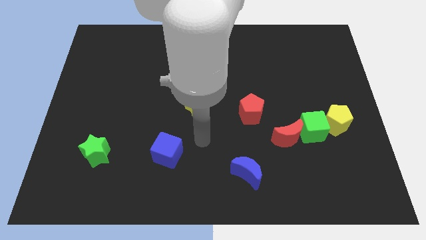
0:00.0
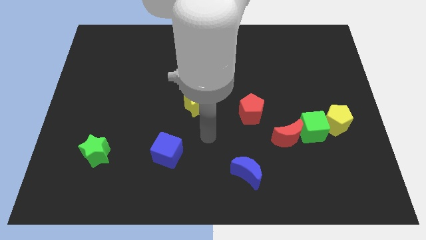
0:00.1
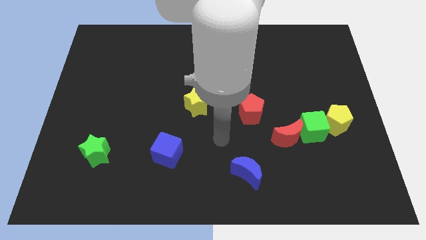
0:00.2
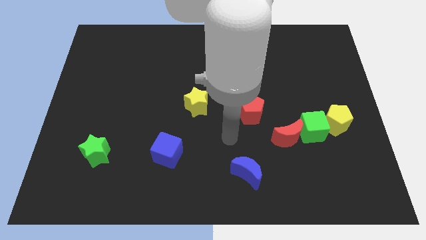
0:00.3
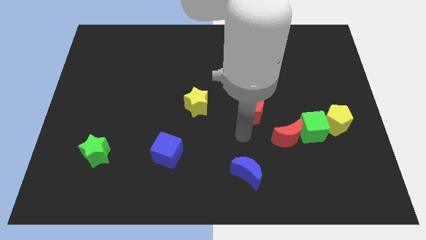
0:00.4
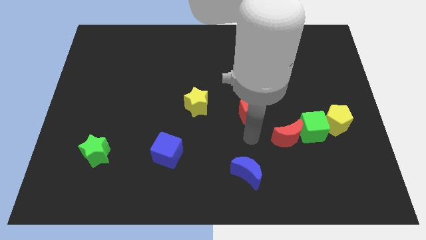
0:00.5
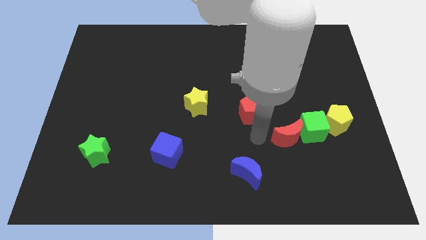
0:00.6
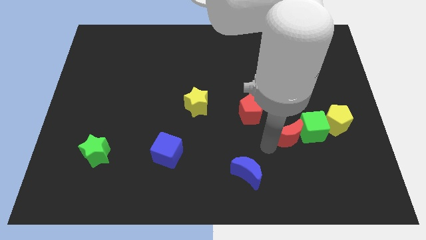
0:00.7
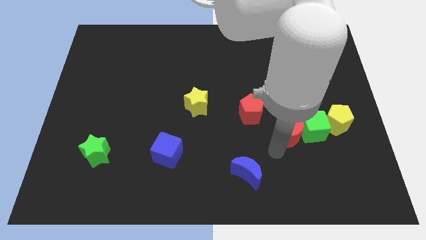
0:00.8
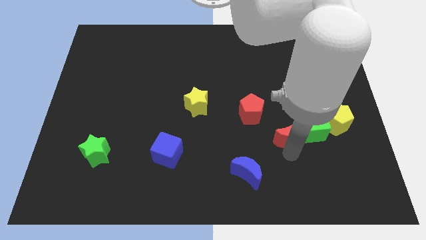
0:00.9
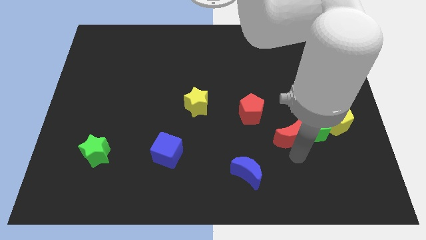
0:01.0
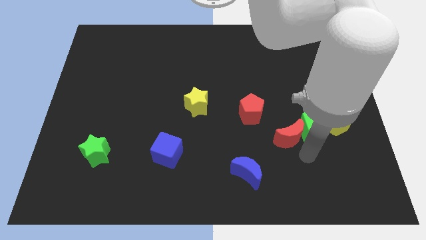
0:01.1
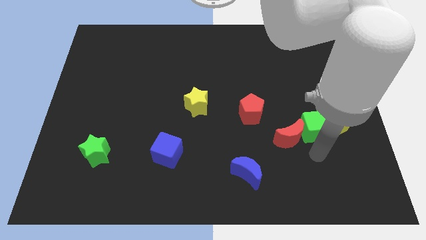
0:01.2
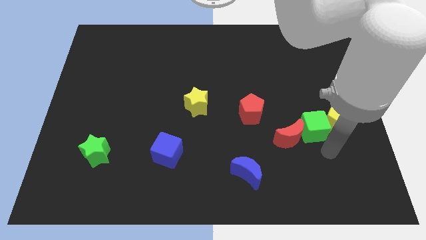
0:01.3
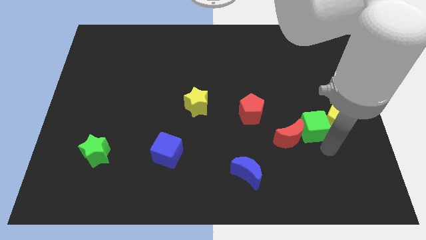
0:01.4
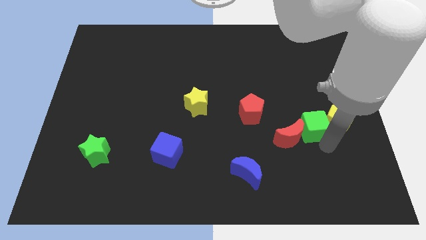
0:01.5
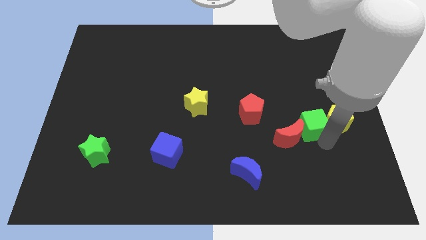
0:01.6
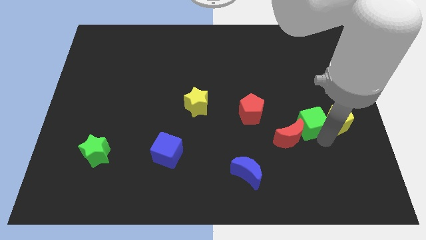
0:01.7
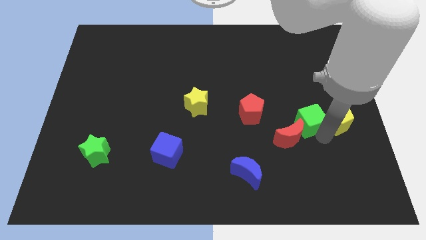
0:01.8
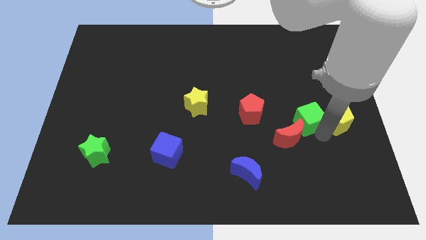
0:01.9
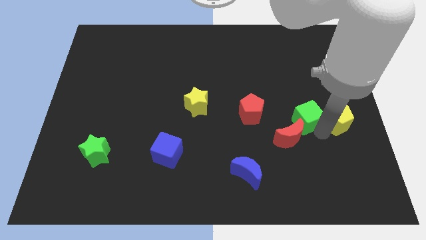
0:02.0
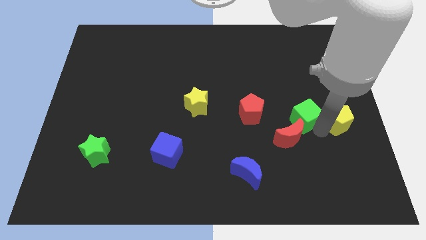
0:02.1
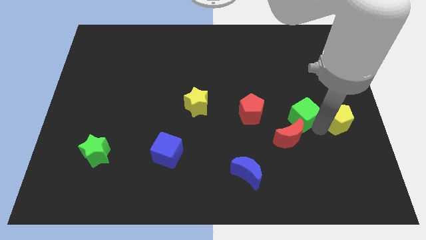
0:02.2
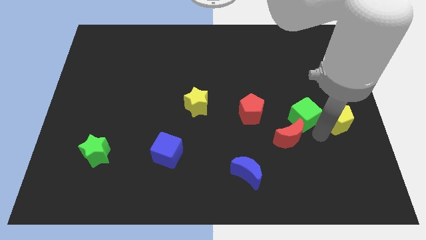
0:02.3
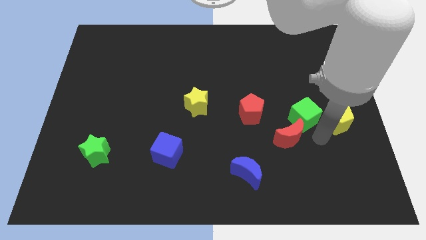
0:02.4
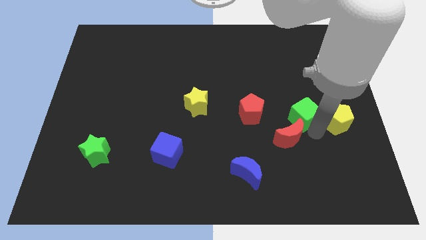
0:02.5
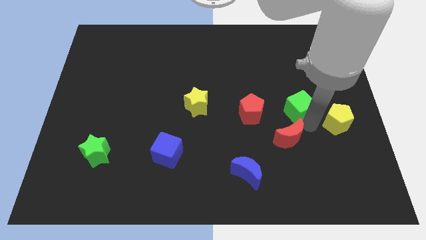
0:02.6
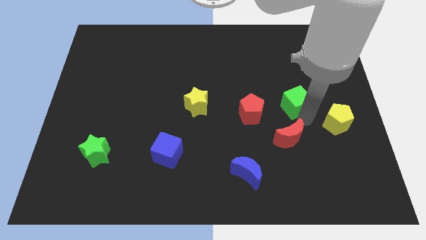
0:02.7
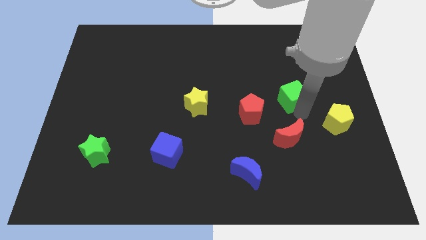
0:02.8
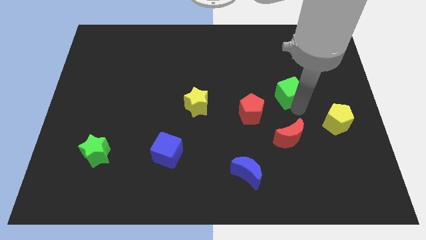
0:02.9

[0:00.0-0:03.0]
move the green cube away from the red moon and yellow pentagon

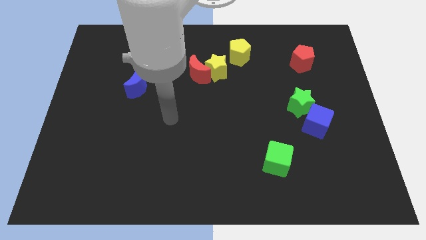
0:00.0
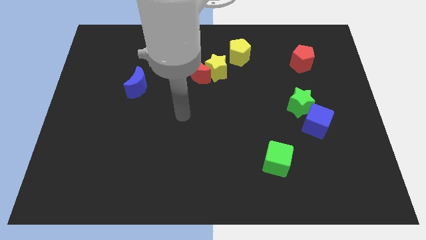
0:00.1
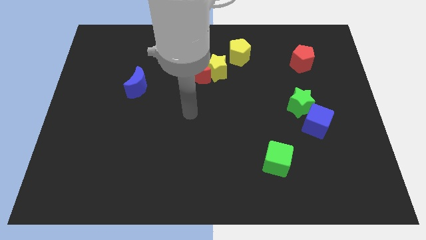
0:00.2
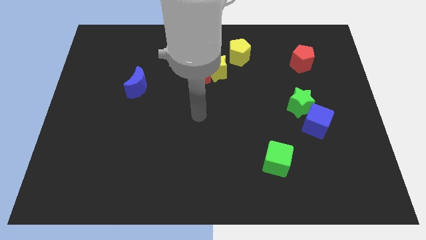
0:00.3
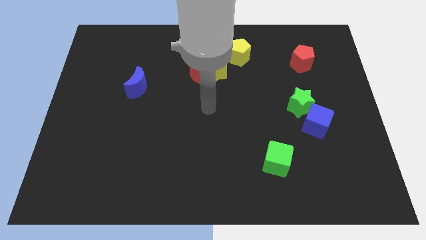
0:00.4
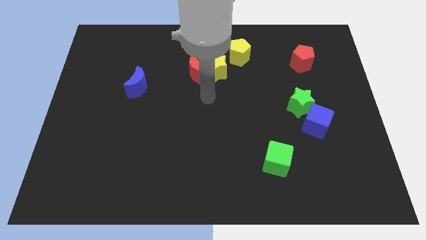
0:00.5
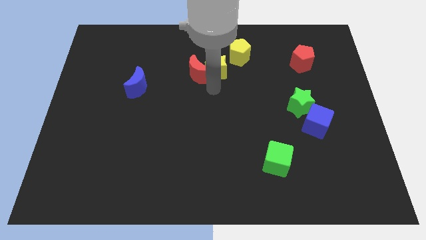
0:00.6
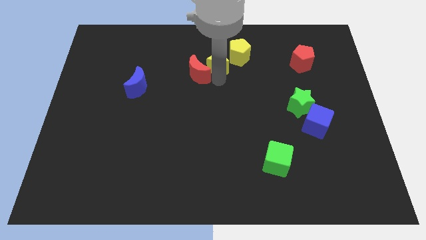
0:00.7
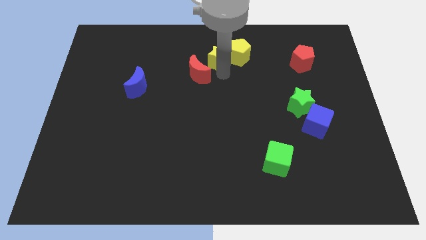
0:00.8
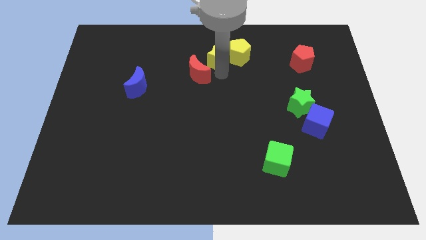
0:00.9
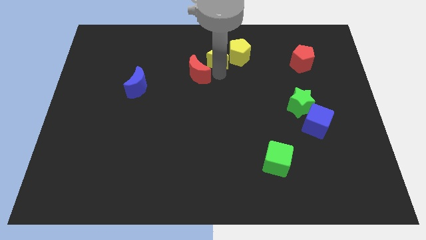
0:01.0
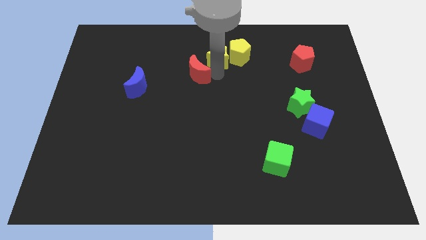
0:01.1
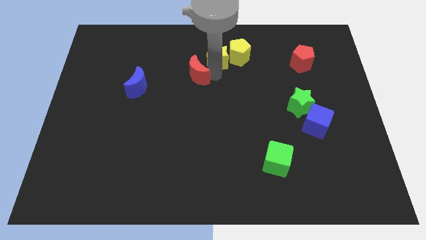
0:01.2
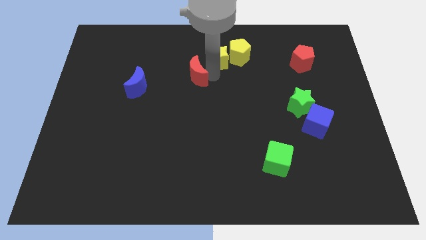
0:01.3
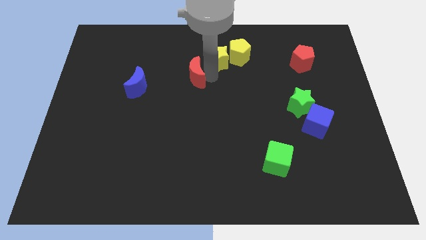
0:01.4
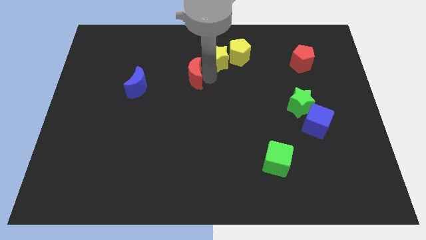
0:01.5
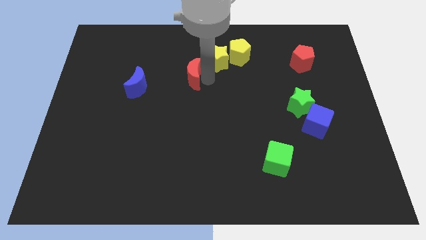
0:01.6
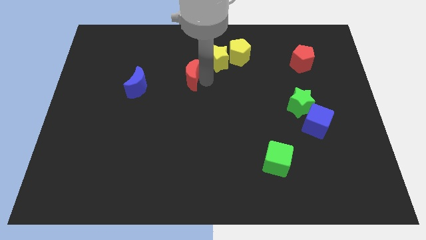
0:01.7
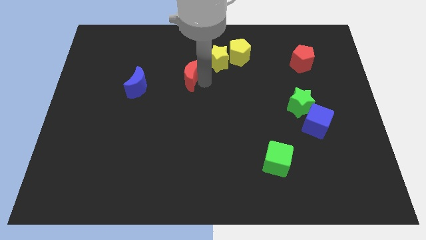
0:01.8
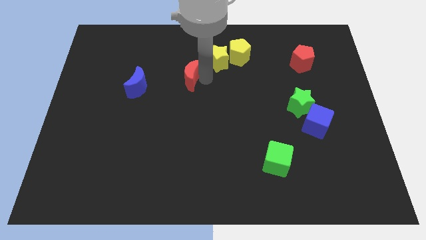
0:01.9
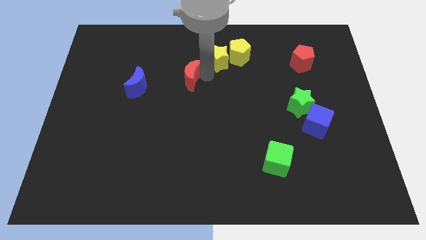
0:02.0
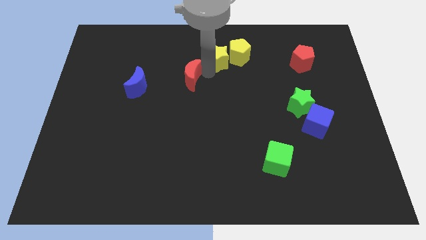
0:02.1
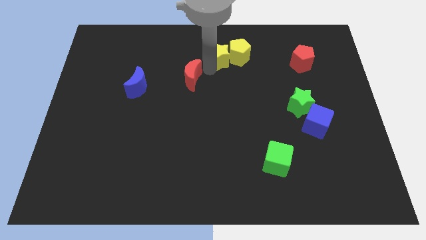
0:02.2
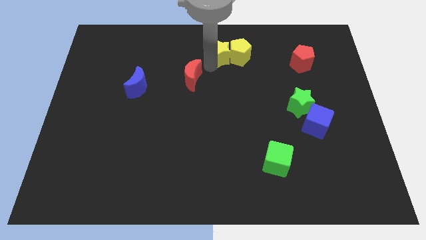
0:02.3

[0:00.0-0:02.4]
move the red moon away from the yellow star

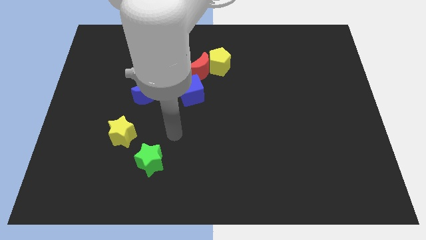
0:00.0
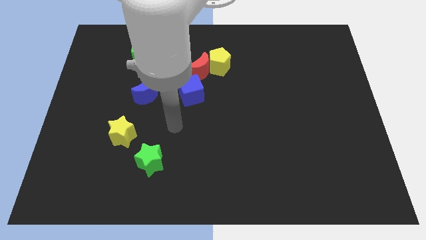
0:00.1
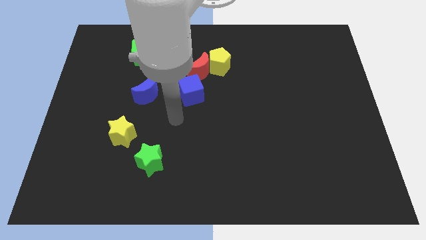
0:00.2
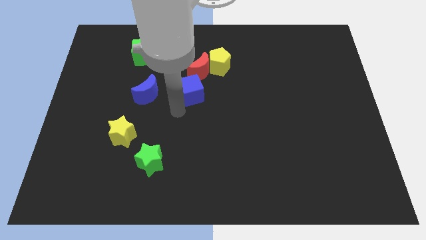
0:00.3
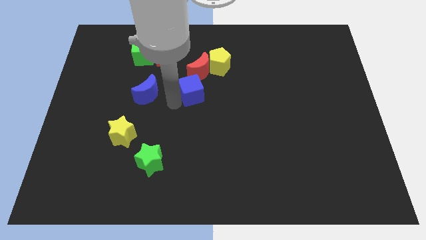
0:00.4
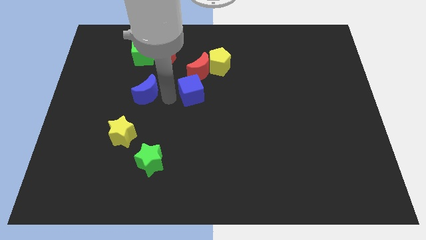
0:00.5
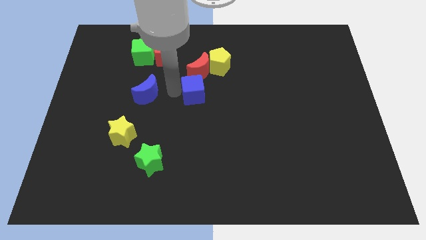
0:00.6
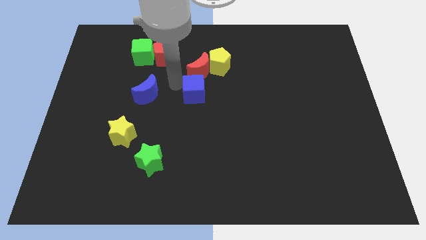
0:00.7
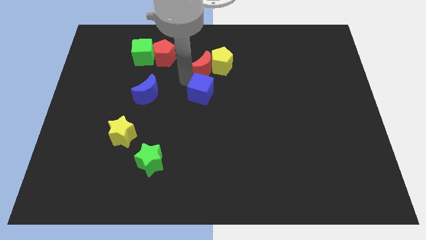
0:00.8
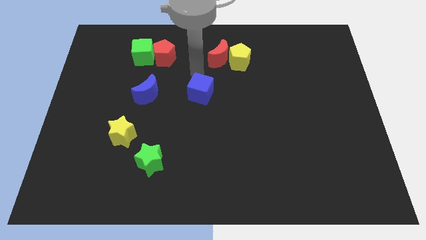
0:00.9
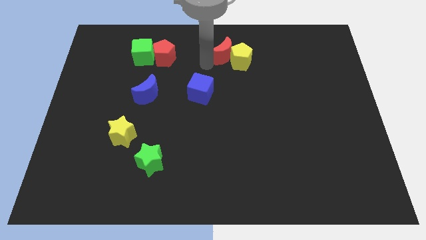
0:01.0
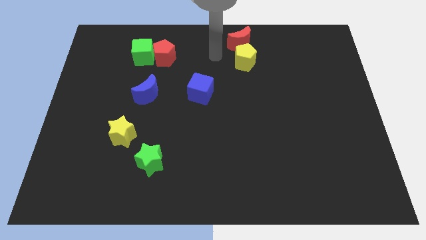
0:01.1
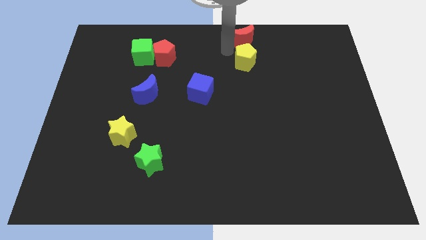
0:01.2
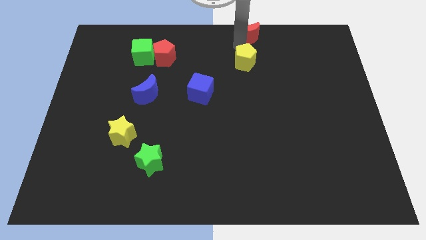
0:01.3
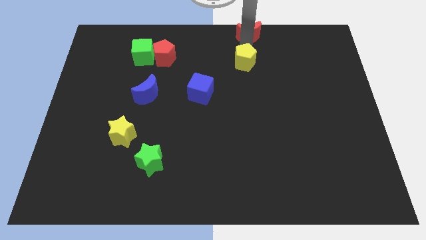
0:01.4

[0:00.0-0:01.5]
pull the yellow pentagon apart from the red moon

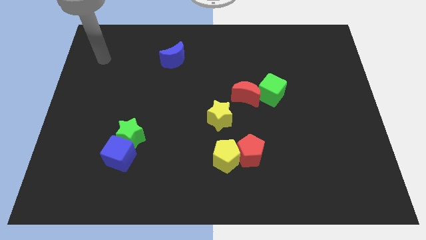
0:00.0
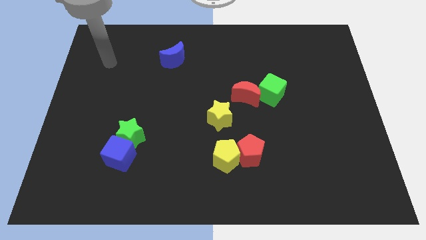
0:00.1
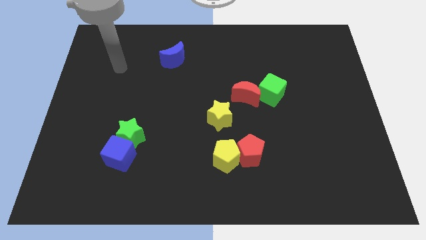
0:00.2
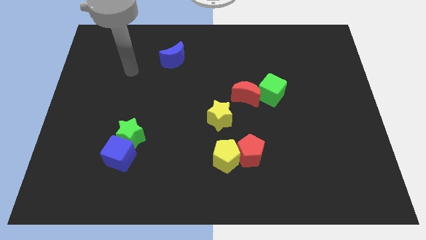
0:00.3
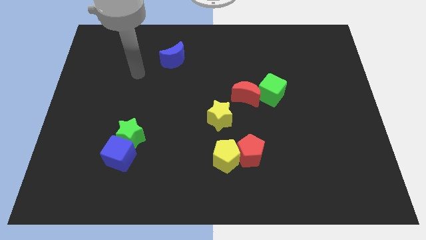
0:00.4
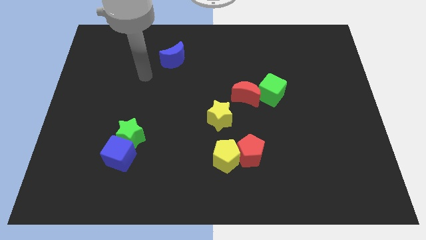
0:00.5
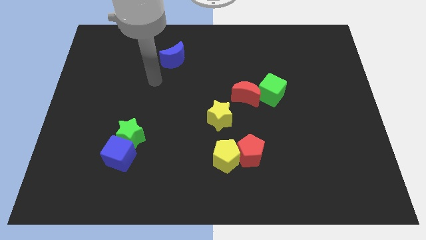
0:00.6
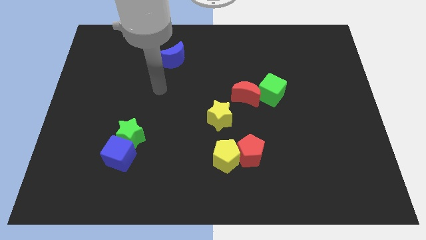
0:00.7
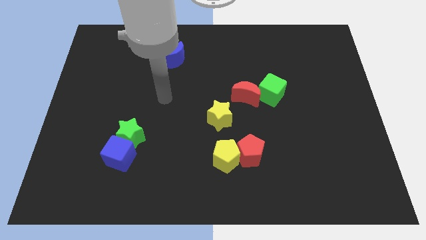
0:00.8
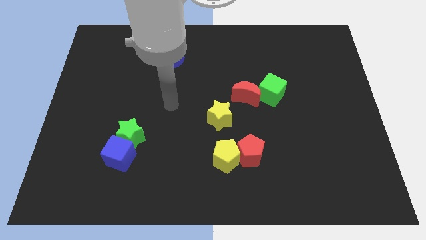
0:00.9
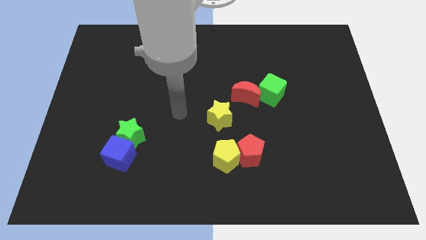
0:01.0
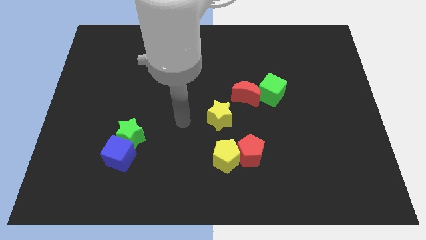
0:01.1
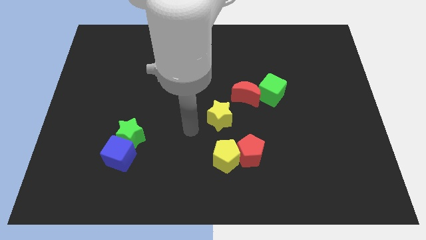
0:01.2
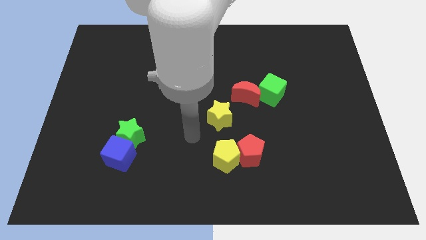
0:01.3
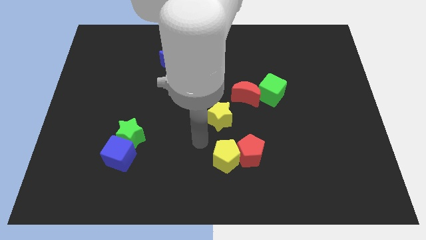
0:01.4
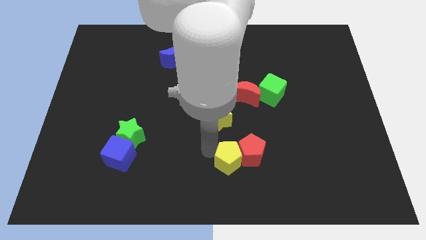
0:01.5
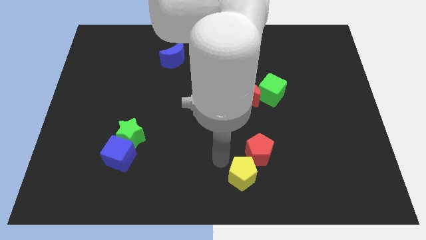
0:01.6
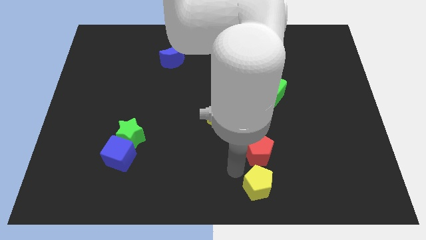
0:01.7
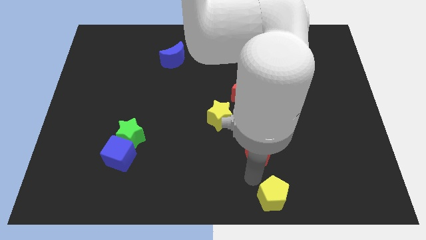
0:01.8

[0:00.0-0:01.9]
separate the red pentagon from the yellow pentagon

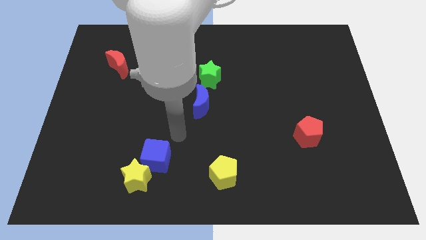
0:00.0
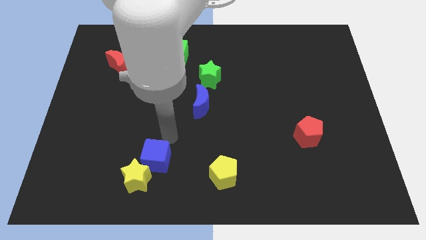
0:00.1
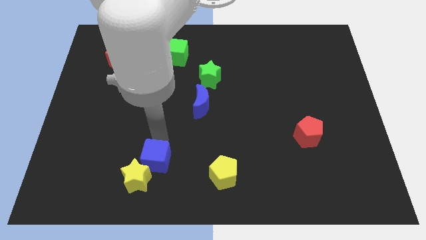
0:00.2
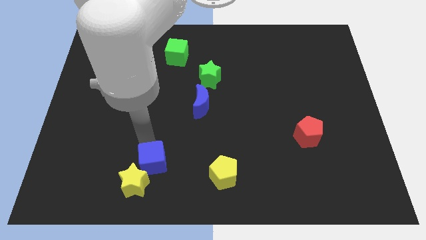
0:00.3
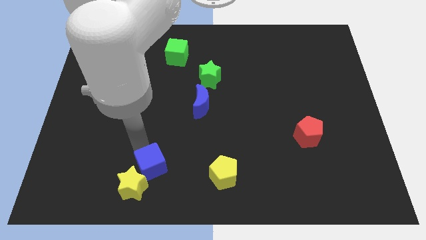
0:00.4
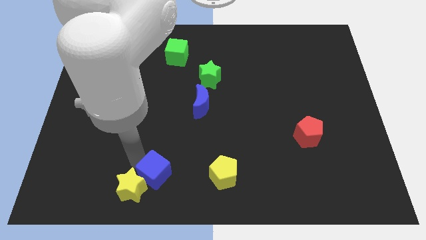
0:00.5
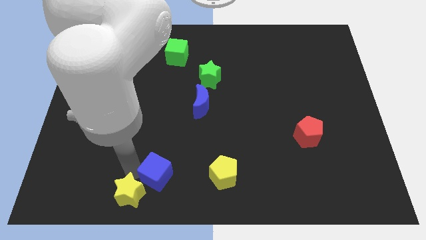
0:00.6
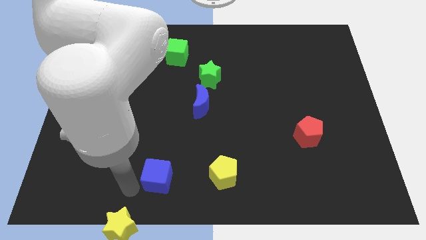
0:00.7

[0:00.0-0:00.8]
move the blue cube away from the yellow star
